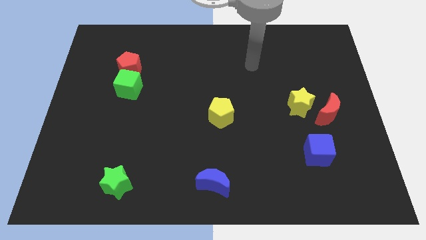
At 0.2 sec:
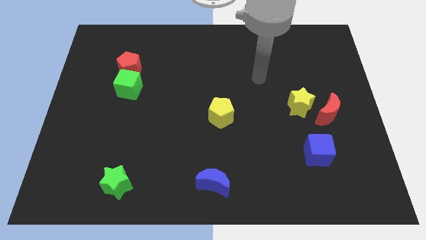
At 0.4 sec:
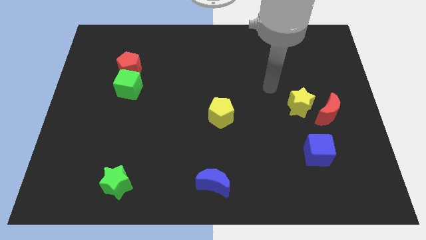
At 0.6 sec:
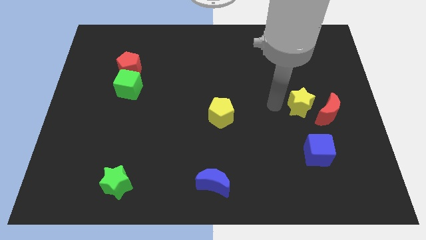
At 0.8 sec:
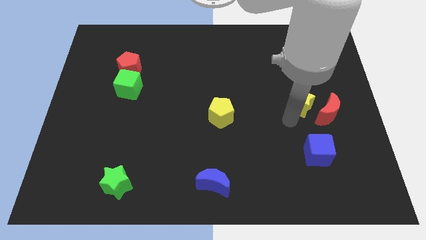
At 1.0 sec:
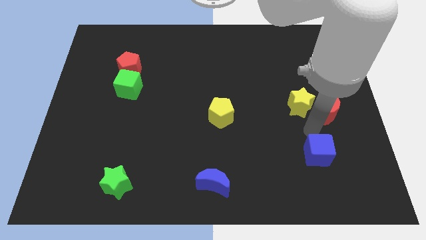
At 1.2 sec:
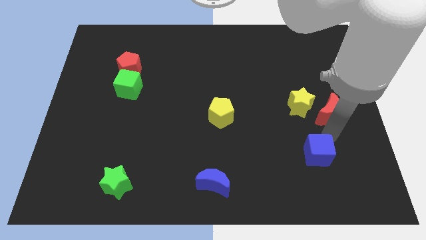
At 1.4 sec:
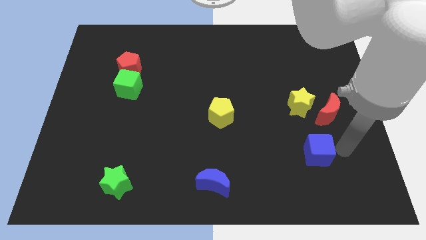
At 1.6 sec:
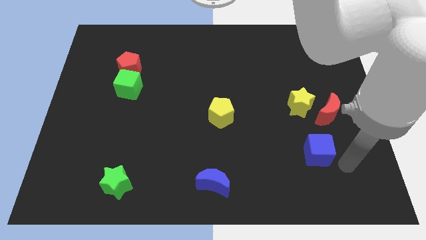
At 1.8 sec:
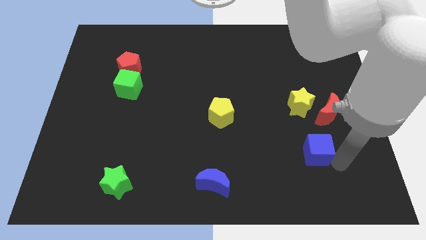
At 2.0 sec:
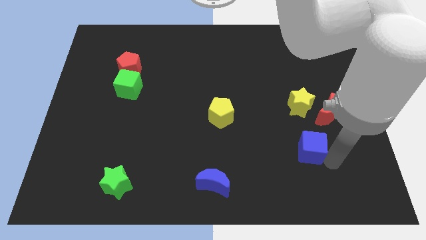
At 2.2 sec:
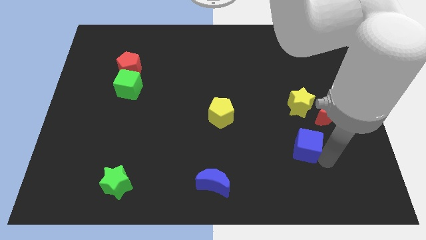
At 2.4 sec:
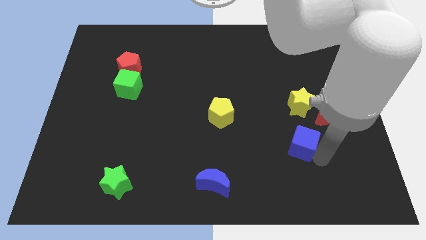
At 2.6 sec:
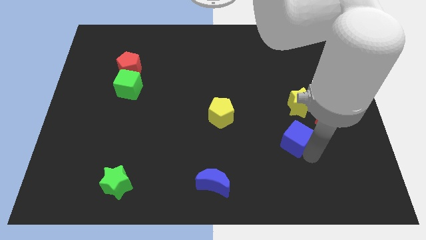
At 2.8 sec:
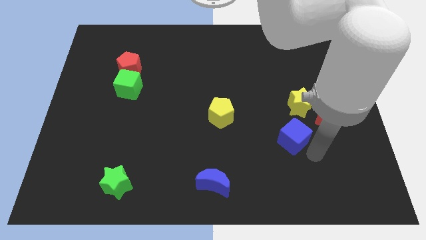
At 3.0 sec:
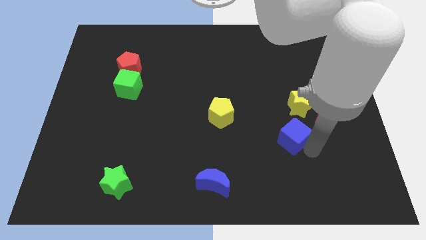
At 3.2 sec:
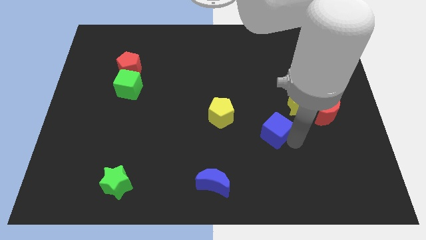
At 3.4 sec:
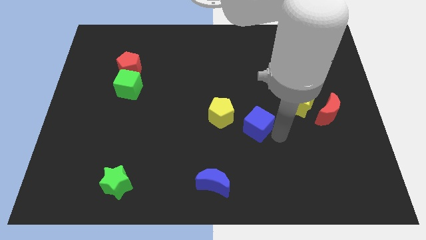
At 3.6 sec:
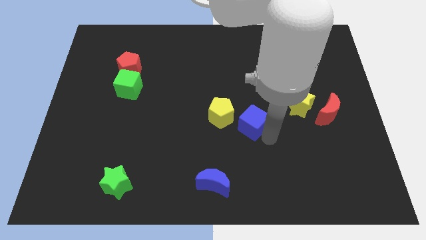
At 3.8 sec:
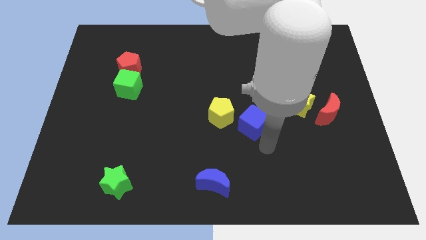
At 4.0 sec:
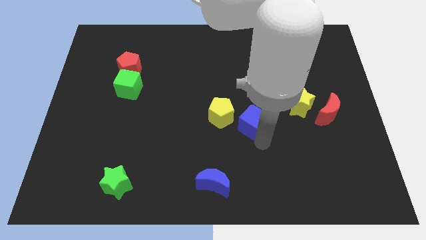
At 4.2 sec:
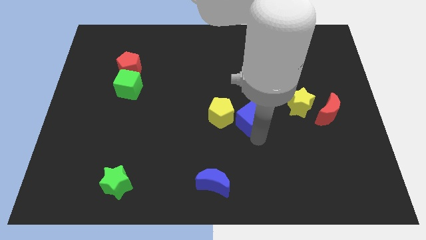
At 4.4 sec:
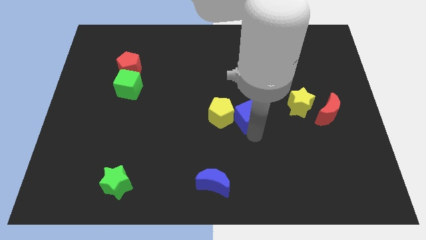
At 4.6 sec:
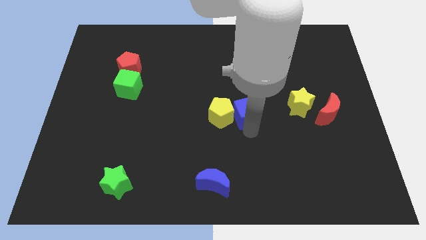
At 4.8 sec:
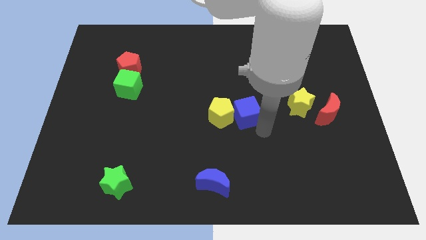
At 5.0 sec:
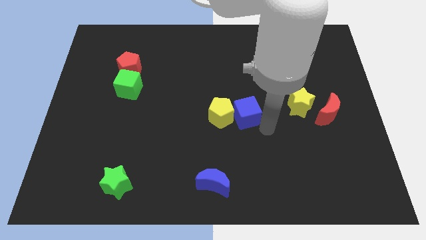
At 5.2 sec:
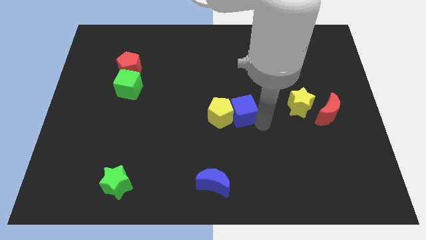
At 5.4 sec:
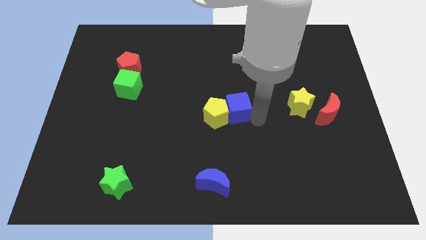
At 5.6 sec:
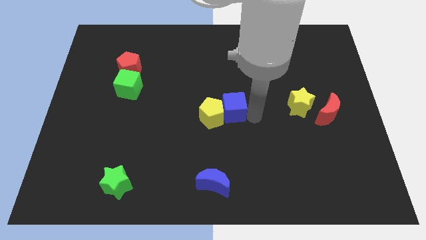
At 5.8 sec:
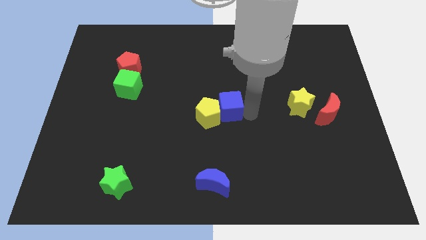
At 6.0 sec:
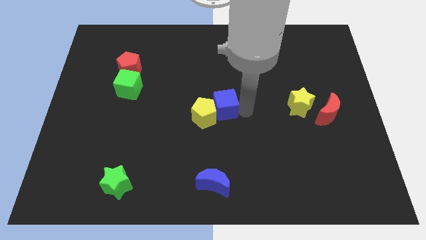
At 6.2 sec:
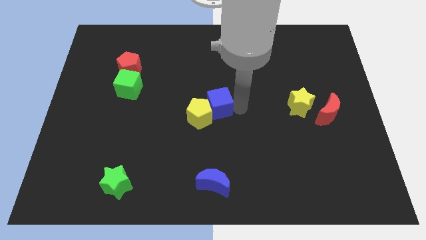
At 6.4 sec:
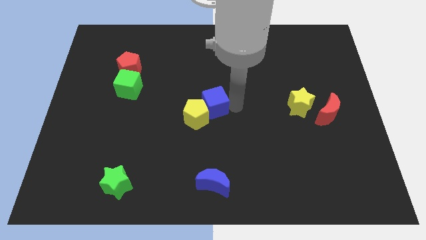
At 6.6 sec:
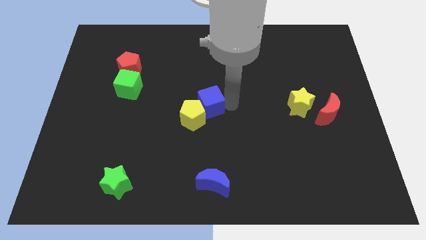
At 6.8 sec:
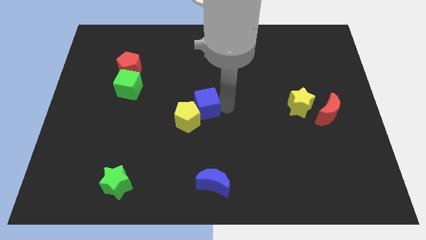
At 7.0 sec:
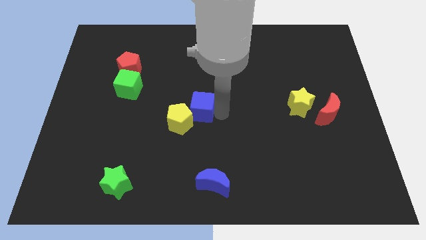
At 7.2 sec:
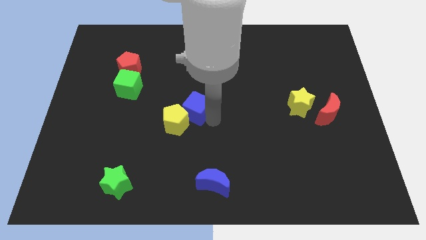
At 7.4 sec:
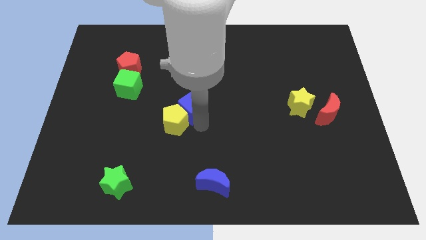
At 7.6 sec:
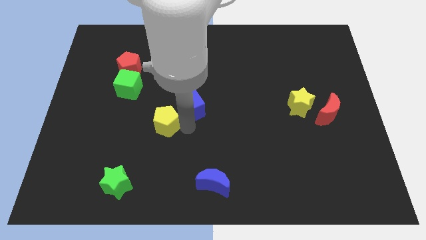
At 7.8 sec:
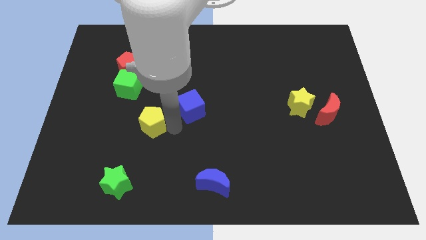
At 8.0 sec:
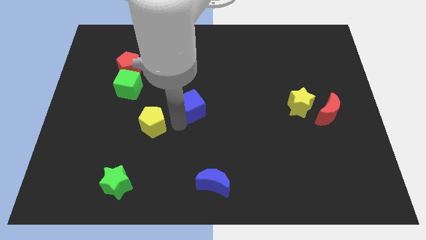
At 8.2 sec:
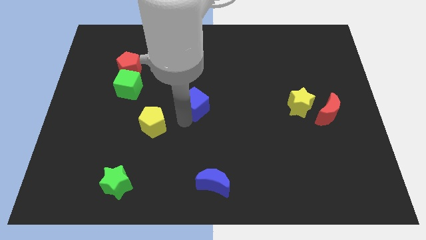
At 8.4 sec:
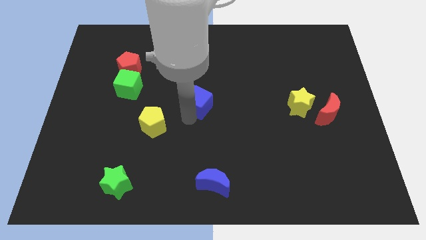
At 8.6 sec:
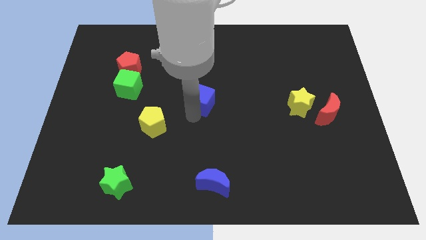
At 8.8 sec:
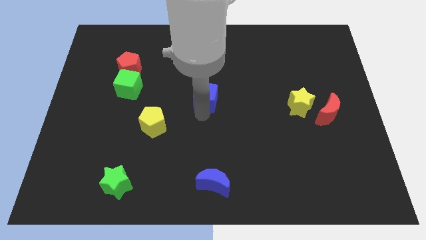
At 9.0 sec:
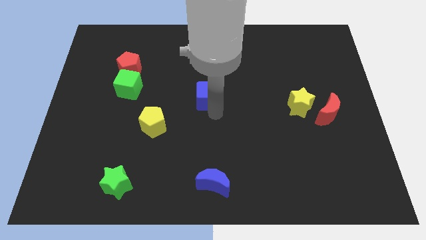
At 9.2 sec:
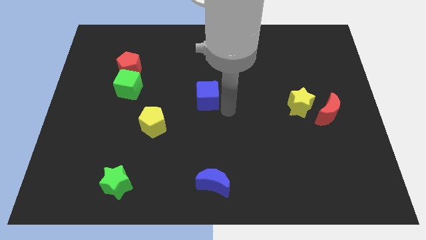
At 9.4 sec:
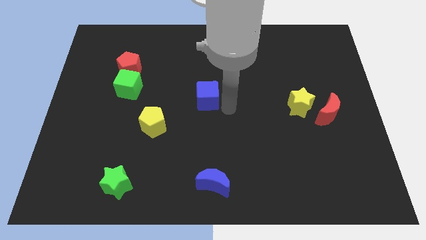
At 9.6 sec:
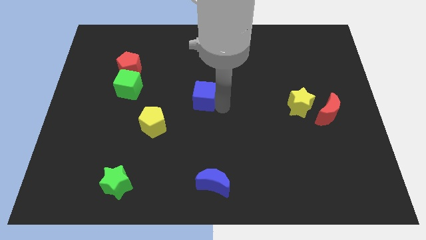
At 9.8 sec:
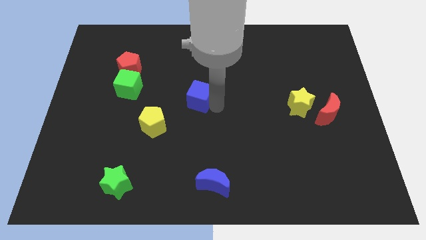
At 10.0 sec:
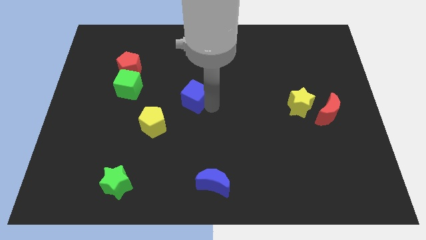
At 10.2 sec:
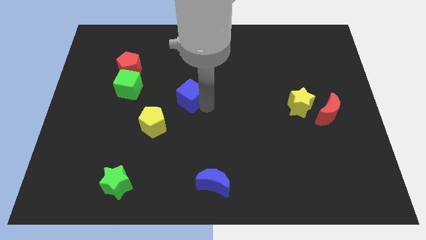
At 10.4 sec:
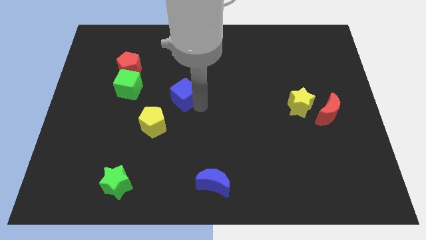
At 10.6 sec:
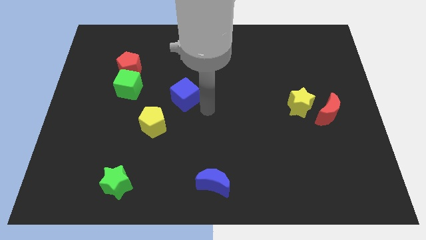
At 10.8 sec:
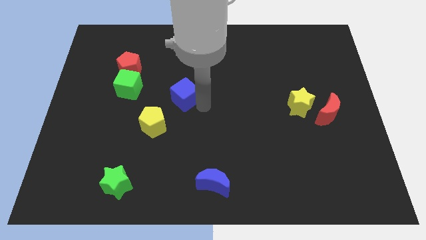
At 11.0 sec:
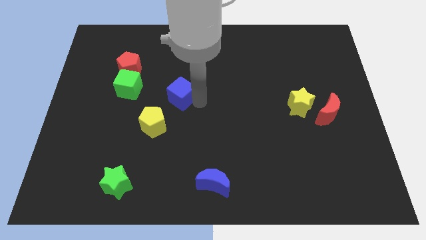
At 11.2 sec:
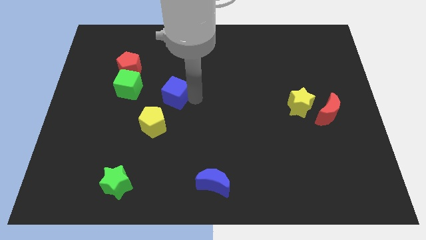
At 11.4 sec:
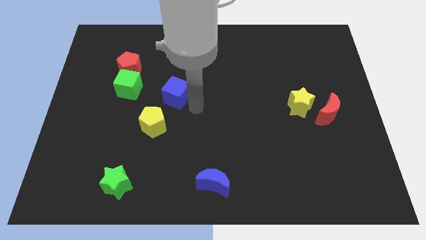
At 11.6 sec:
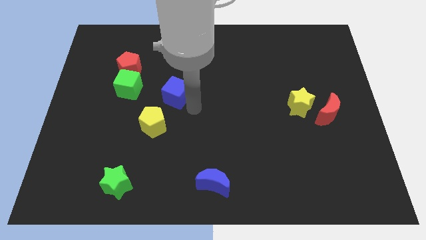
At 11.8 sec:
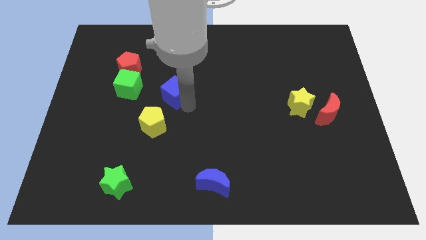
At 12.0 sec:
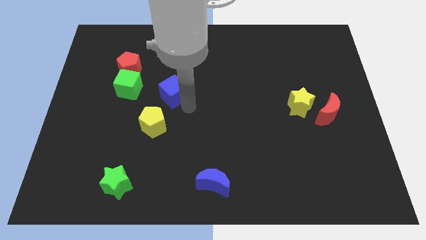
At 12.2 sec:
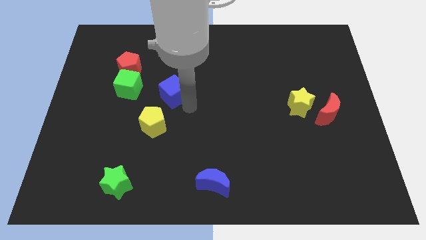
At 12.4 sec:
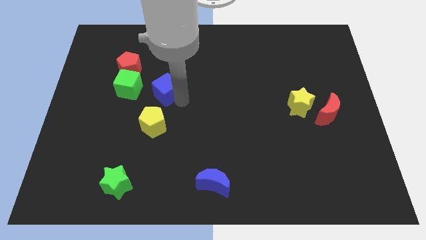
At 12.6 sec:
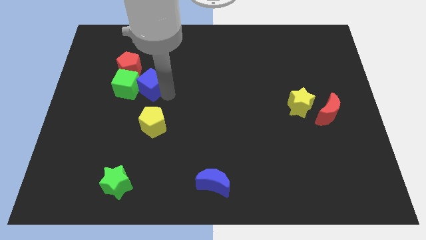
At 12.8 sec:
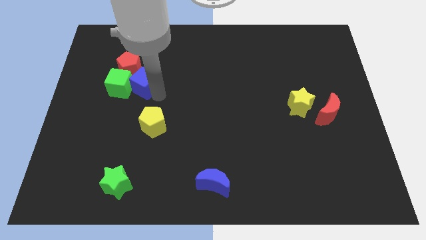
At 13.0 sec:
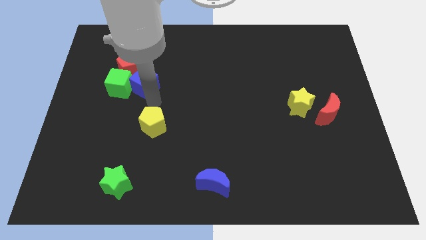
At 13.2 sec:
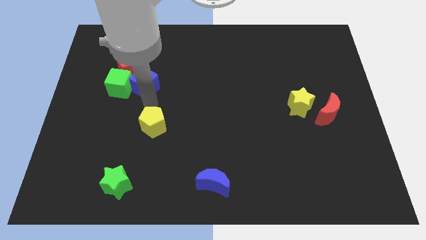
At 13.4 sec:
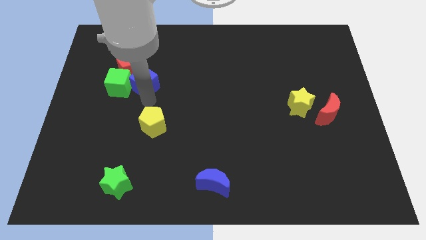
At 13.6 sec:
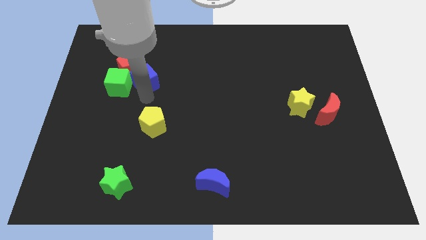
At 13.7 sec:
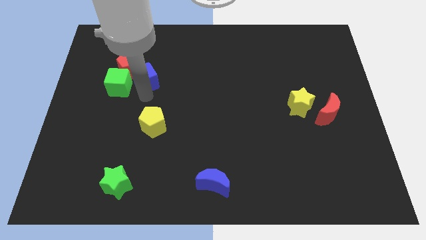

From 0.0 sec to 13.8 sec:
push the blue cube close to the red pentagon
